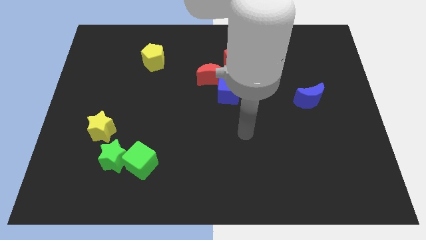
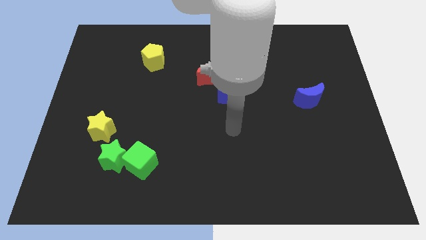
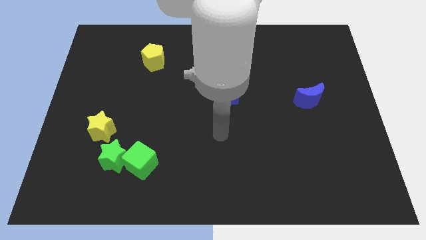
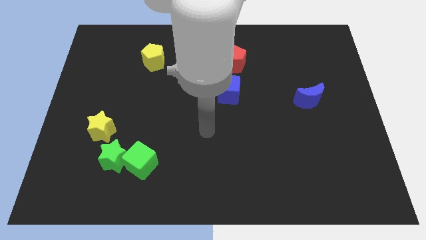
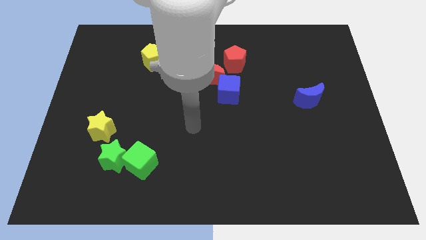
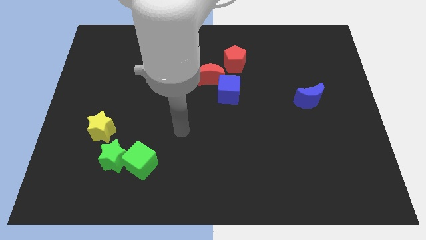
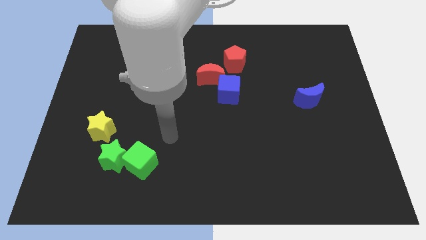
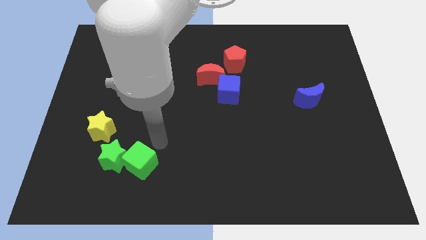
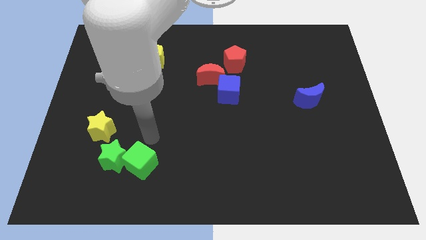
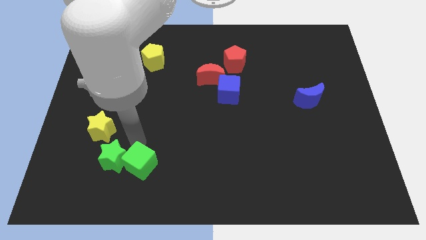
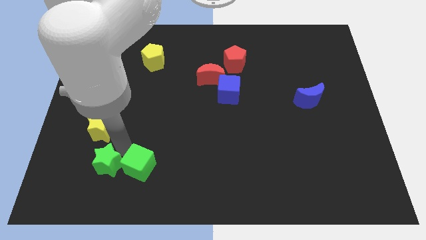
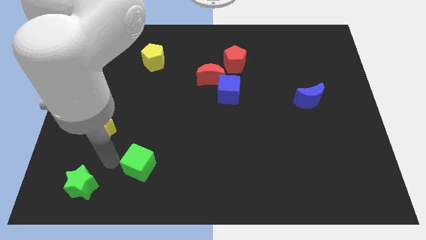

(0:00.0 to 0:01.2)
separate the green cube from the green star

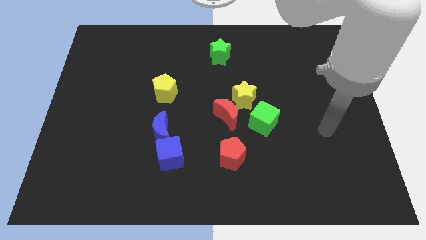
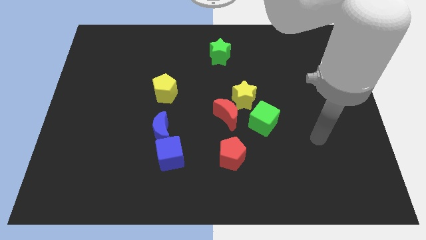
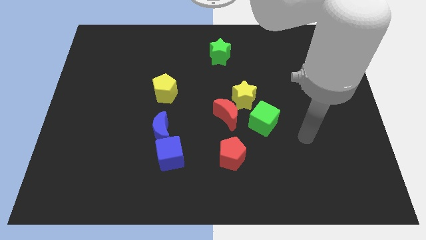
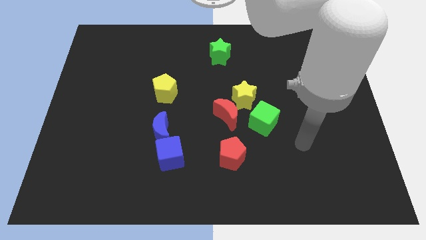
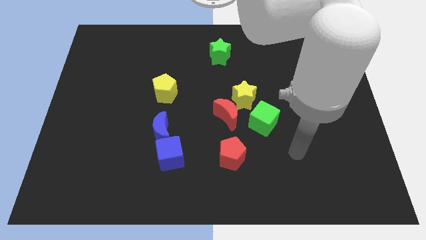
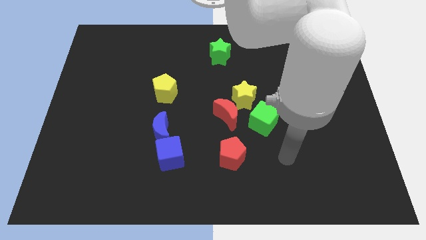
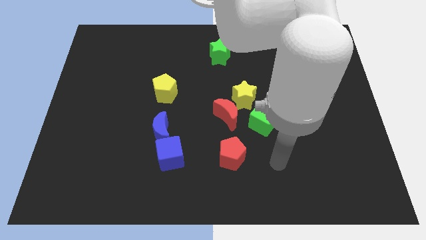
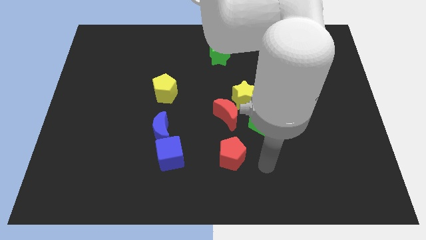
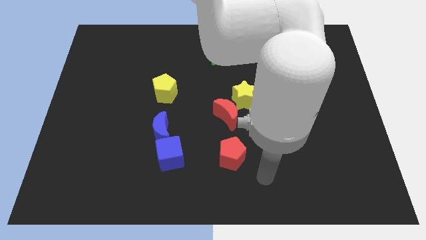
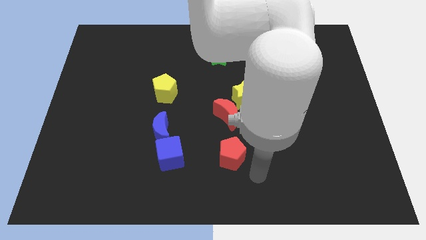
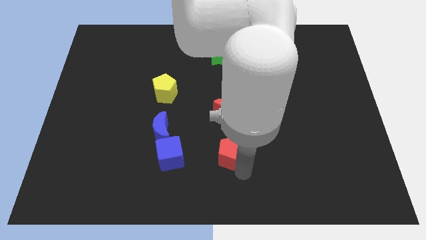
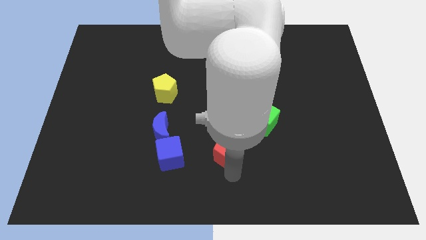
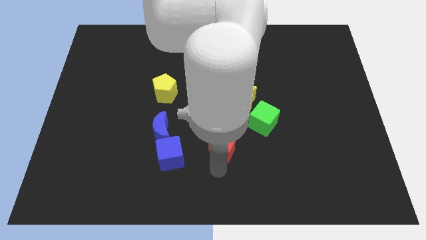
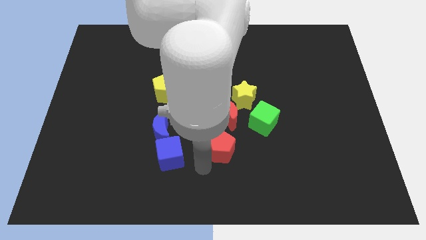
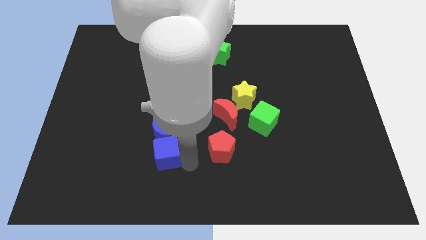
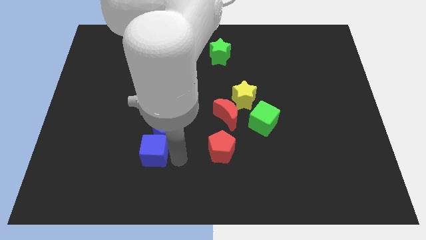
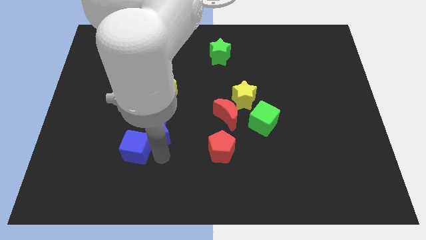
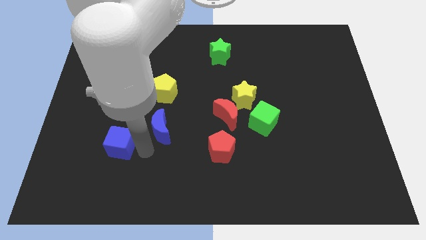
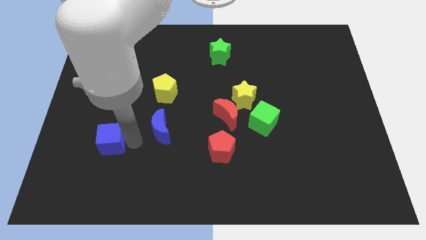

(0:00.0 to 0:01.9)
separate the blue moon from the blue cube

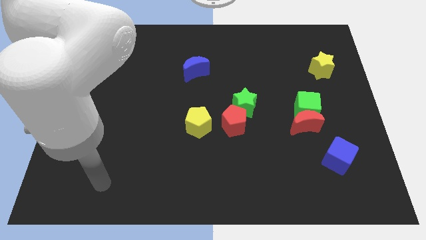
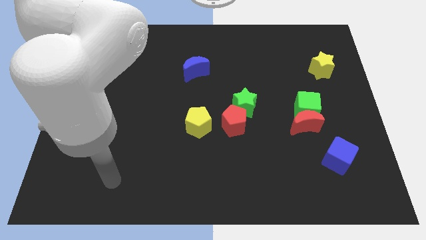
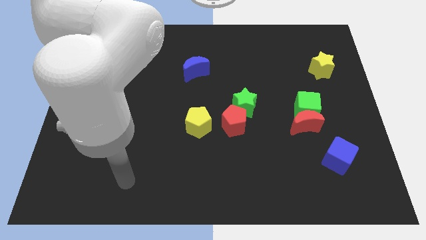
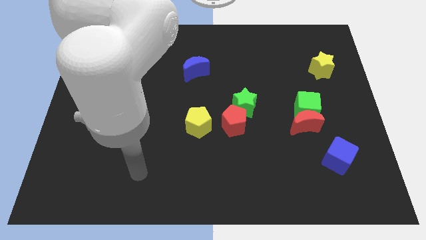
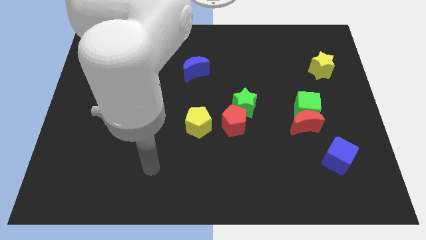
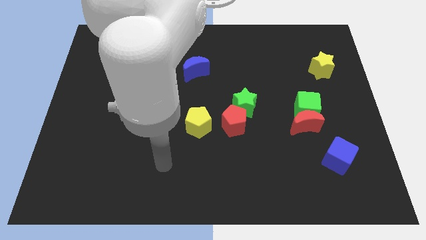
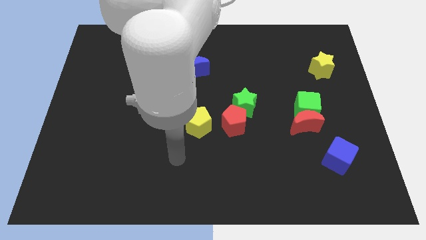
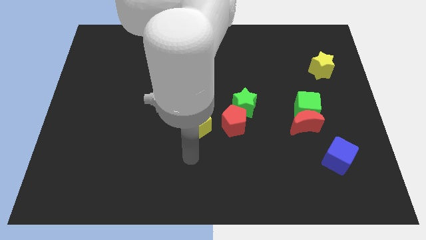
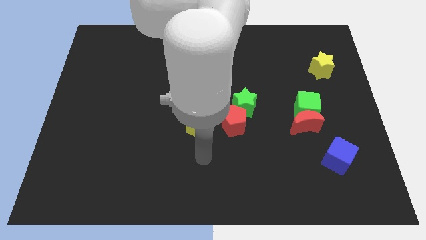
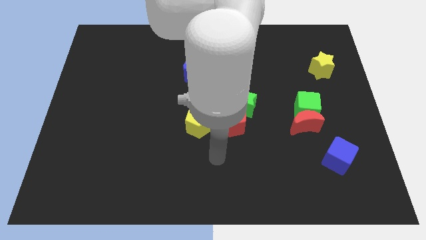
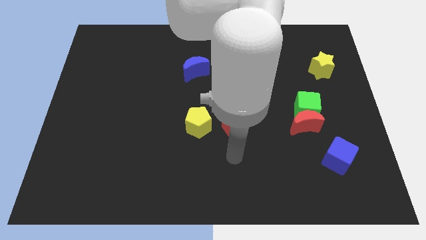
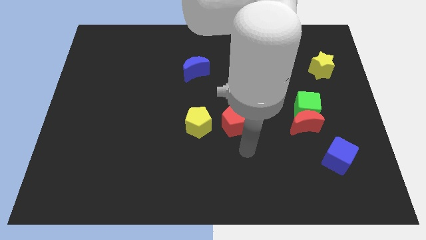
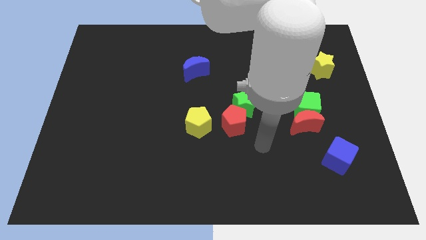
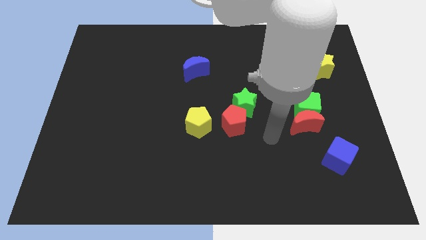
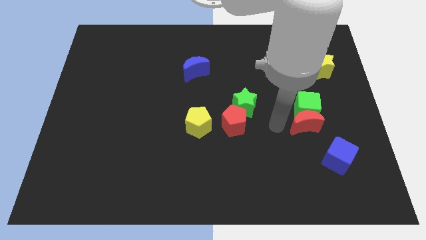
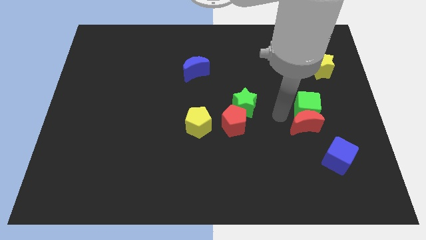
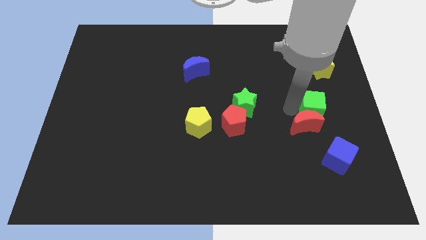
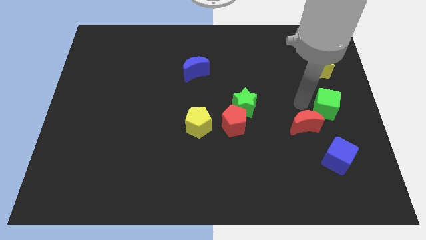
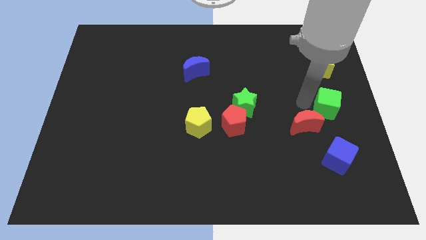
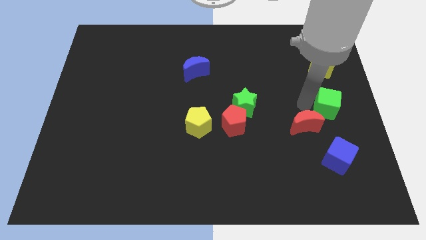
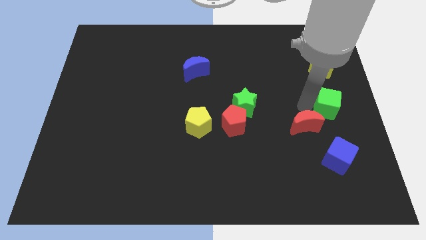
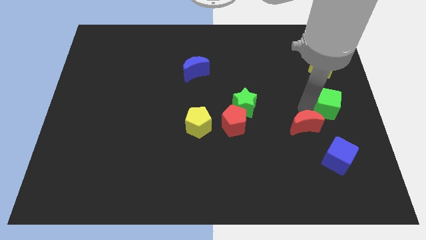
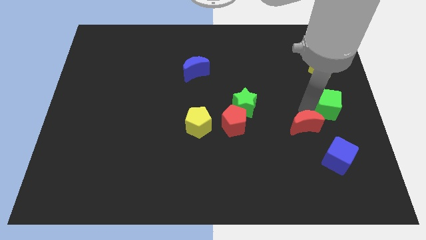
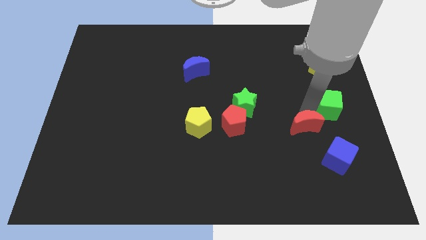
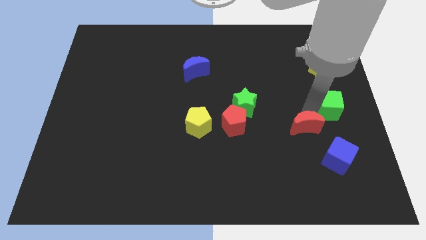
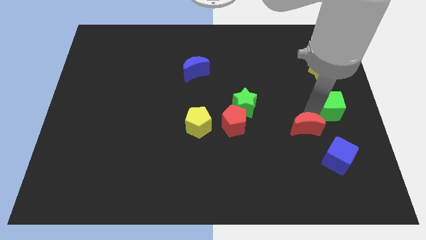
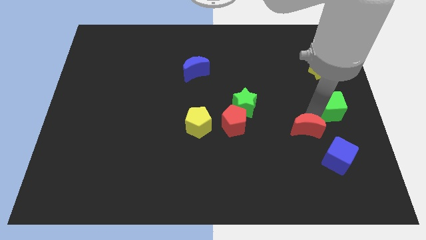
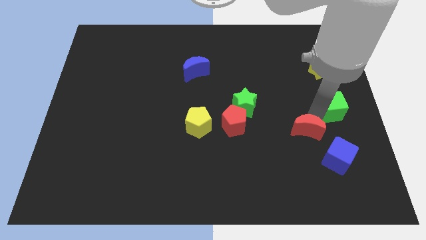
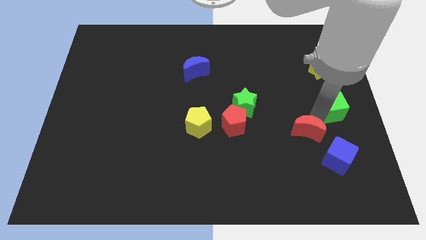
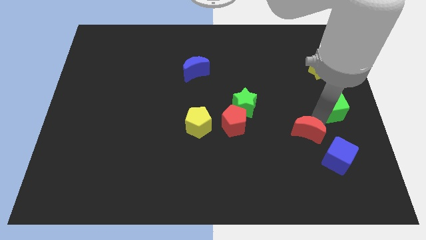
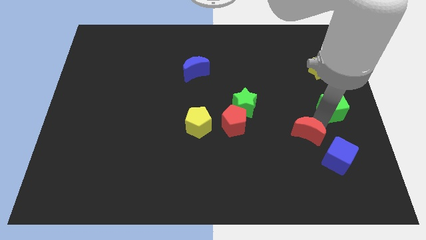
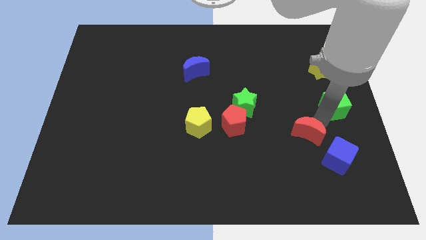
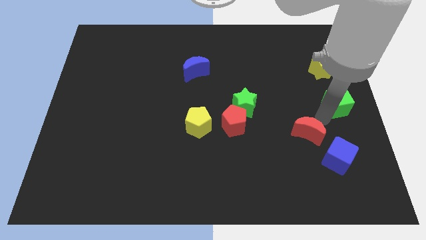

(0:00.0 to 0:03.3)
separate the red moon from the green cube

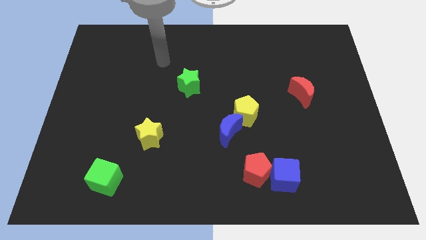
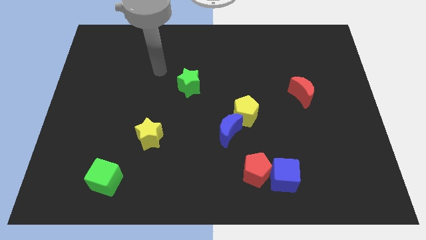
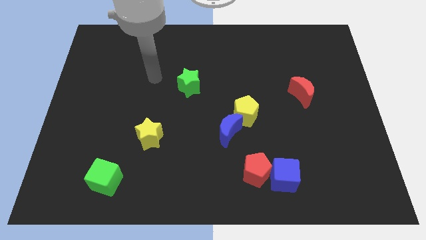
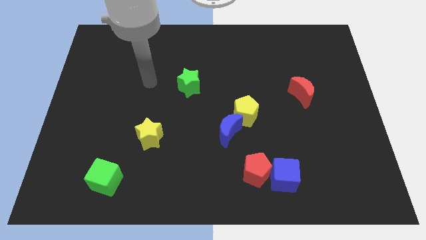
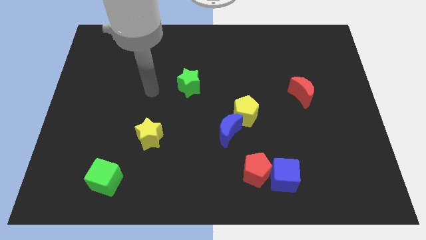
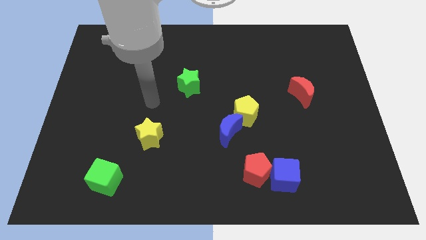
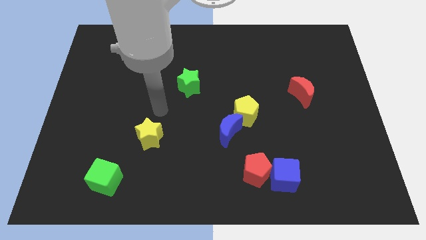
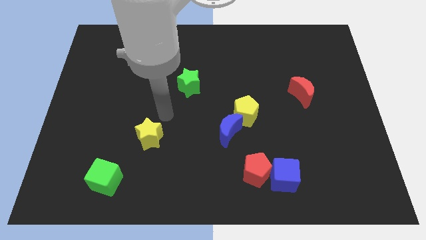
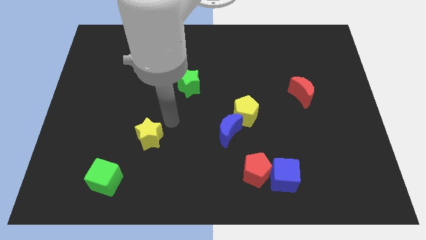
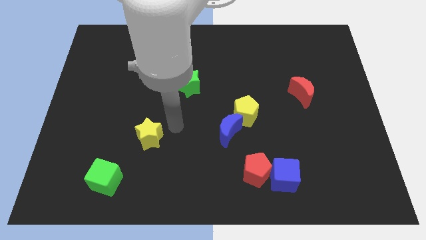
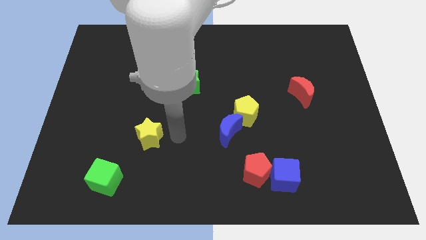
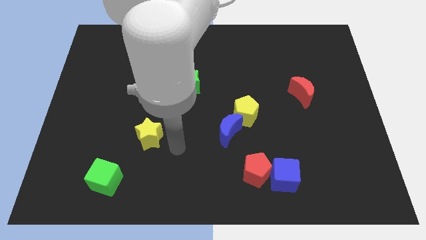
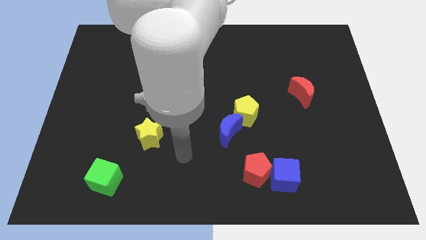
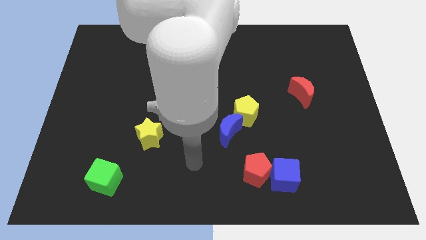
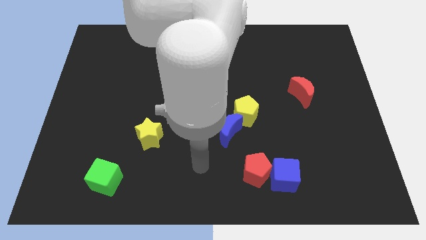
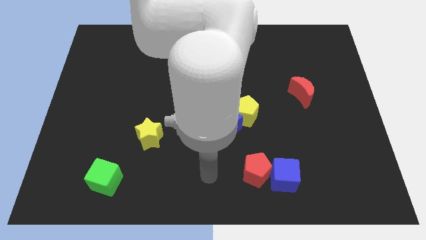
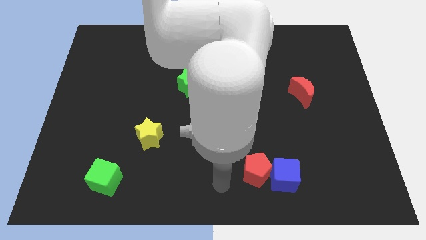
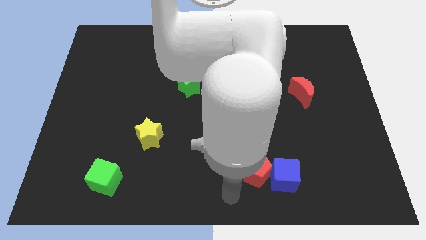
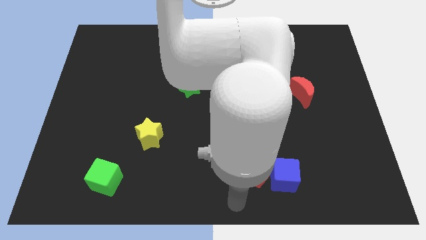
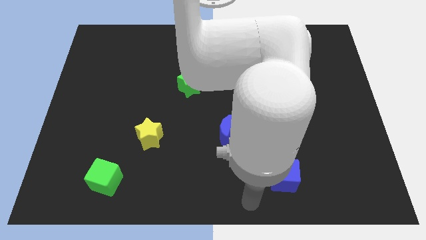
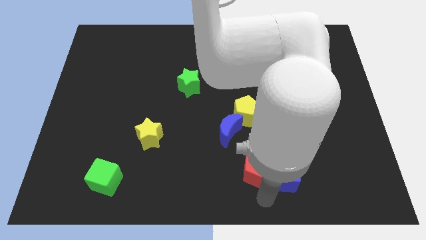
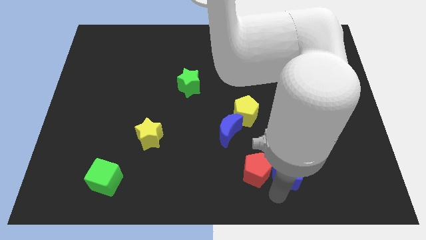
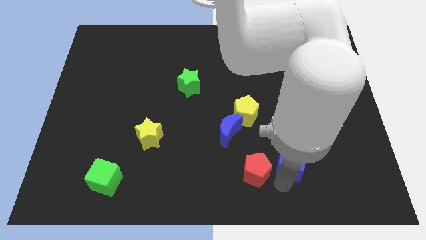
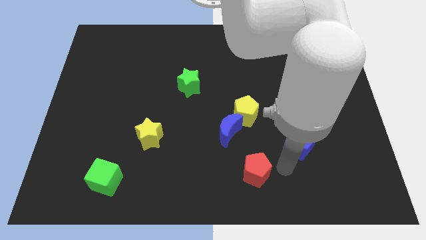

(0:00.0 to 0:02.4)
separate the red pentagon from the blue cube

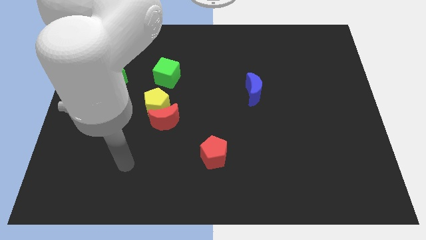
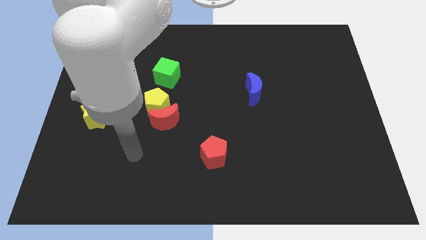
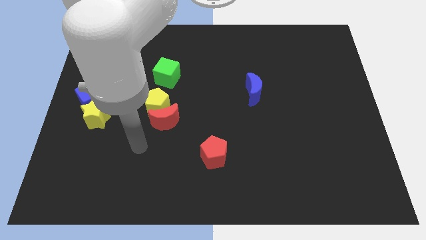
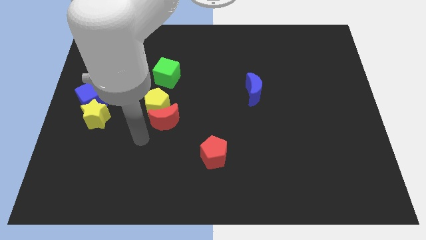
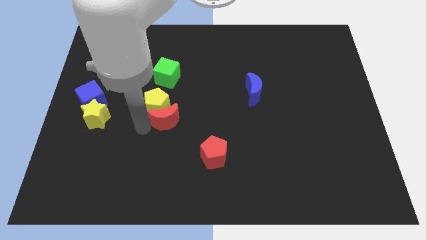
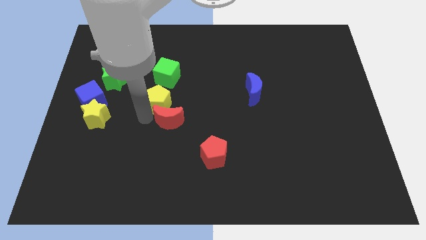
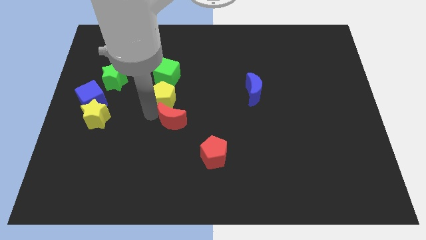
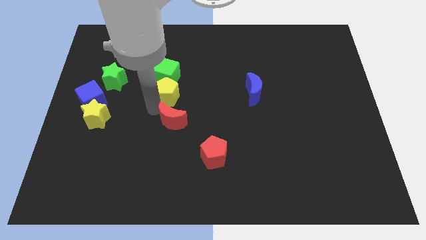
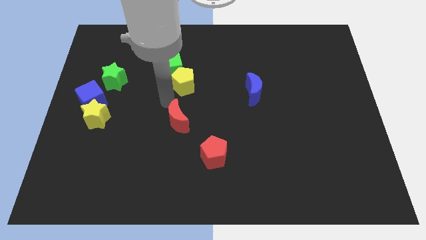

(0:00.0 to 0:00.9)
pull the red moon apart from the yellow pentagon
